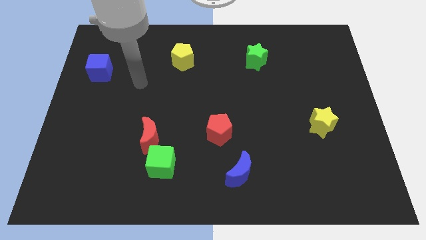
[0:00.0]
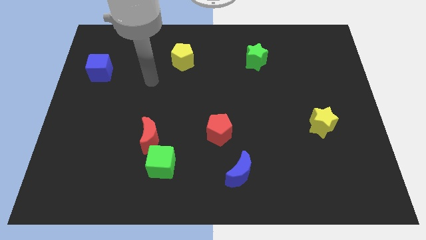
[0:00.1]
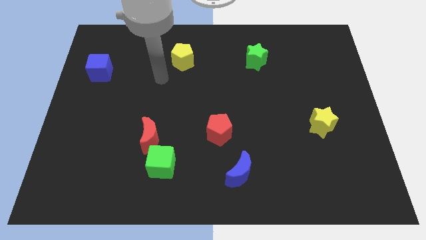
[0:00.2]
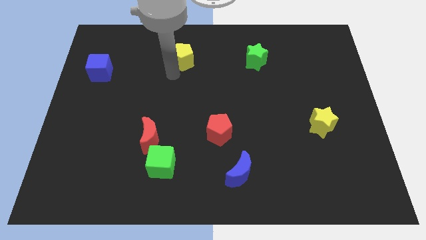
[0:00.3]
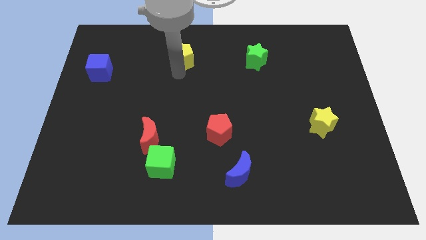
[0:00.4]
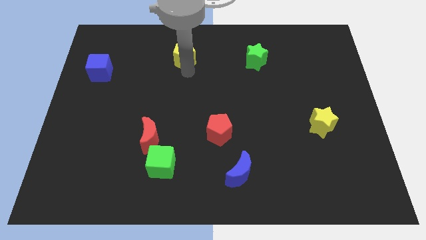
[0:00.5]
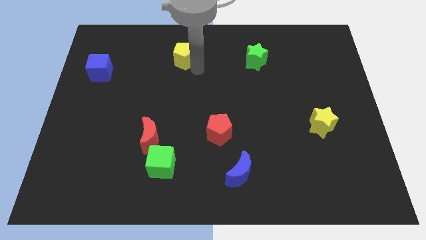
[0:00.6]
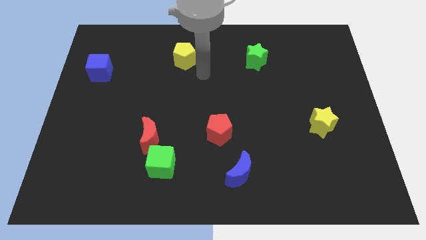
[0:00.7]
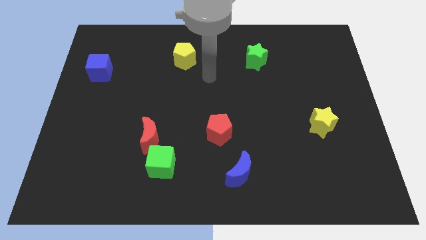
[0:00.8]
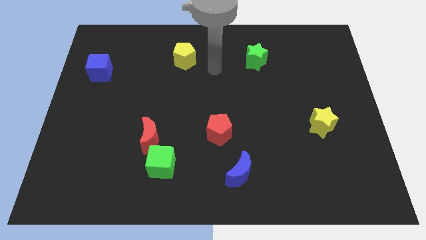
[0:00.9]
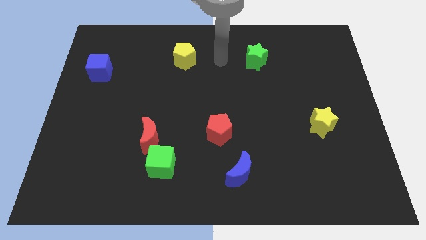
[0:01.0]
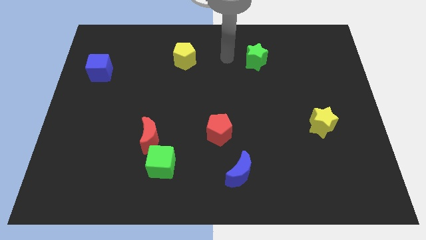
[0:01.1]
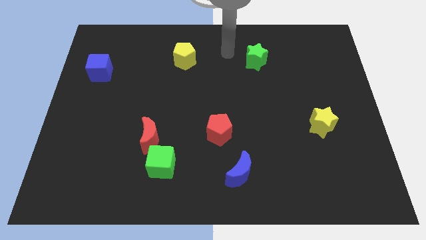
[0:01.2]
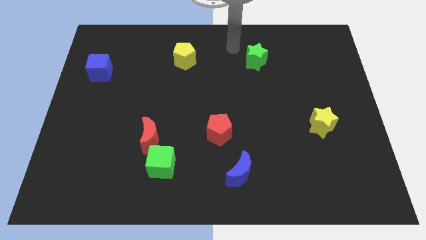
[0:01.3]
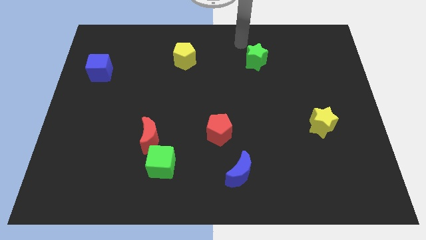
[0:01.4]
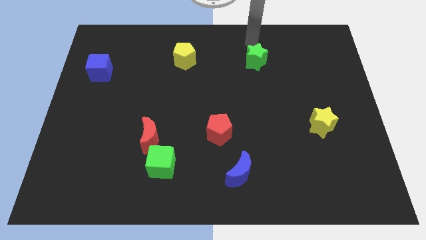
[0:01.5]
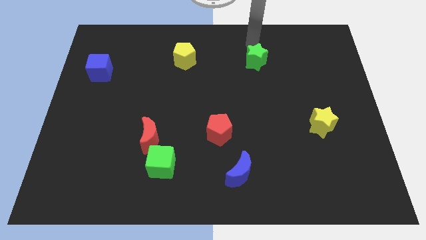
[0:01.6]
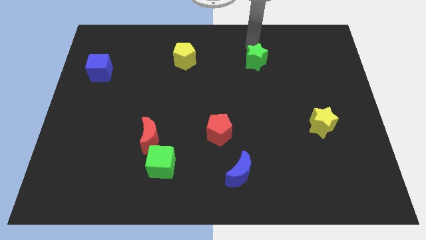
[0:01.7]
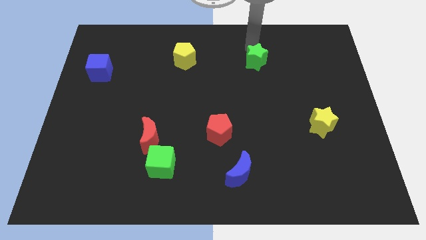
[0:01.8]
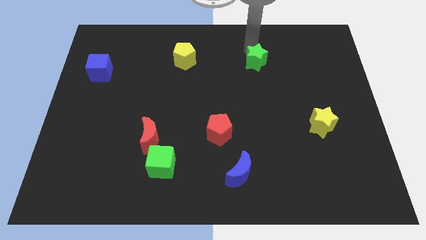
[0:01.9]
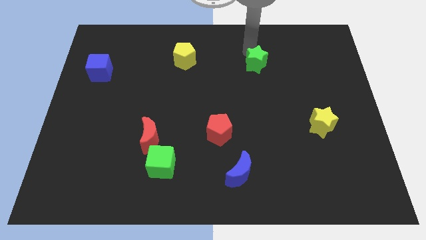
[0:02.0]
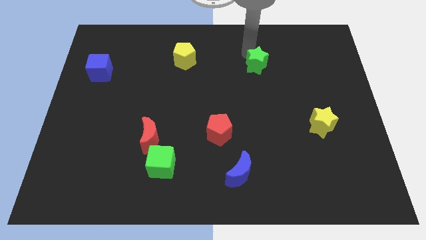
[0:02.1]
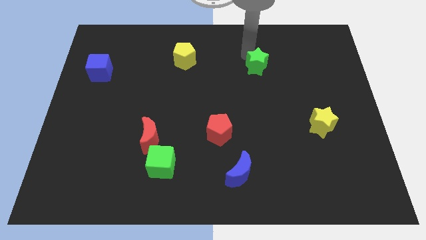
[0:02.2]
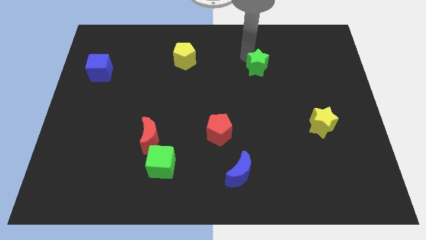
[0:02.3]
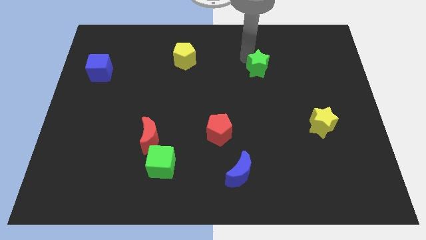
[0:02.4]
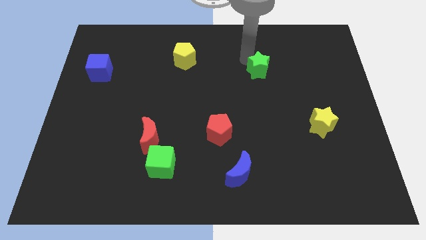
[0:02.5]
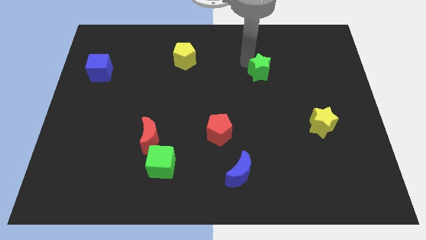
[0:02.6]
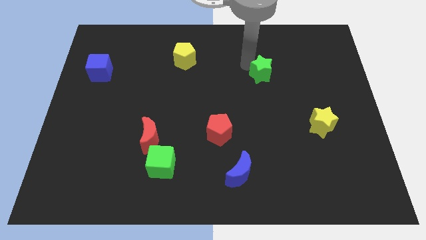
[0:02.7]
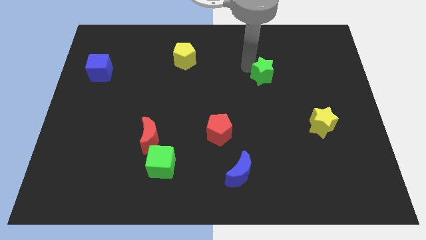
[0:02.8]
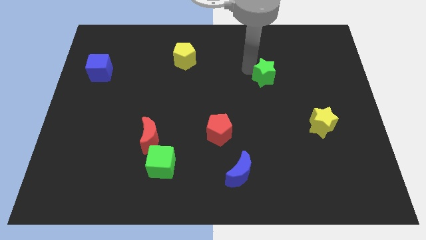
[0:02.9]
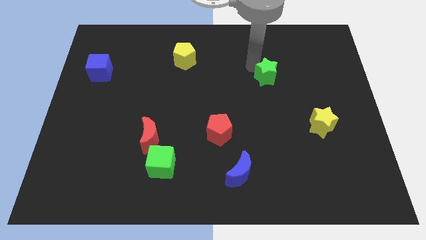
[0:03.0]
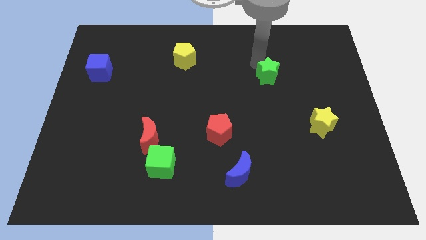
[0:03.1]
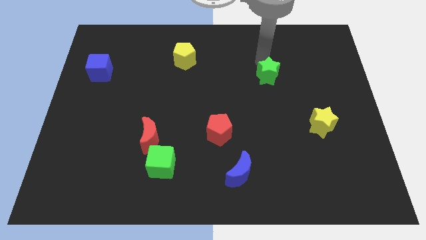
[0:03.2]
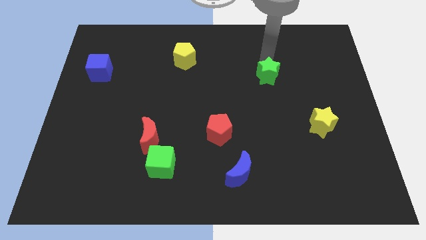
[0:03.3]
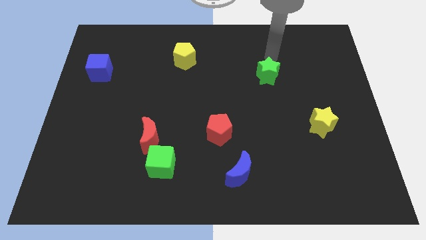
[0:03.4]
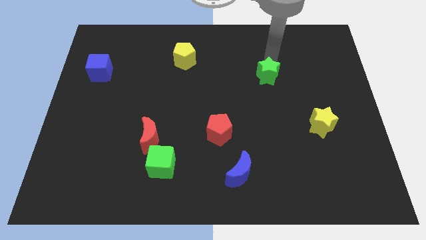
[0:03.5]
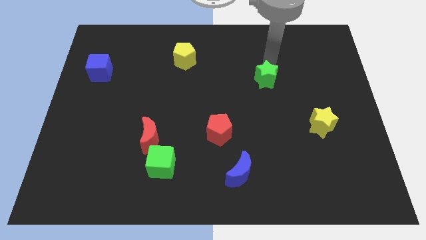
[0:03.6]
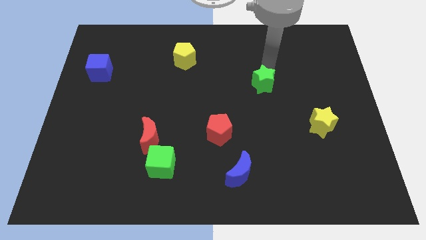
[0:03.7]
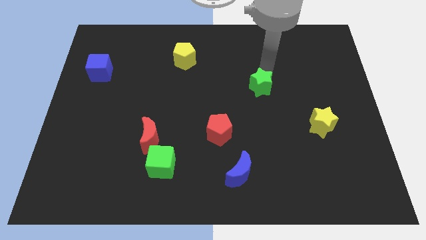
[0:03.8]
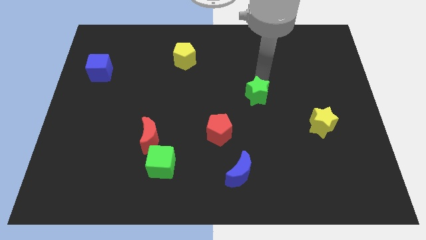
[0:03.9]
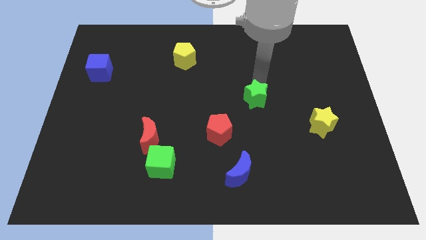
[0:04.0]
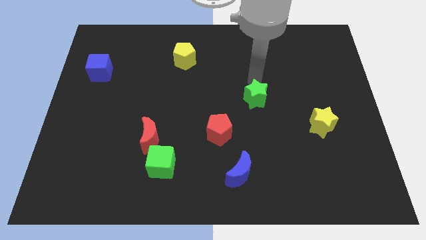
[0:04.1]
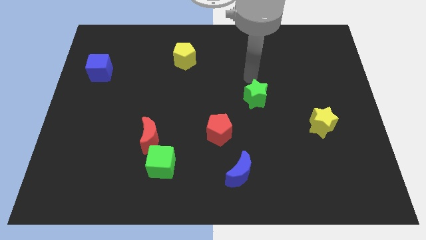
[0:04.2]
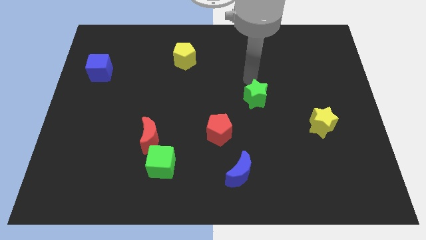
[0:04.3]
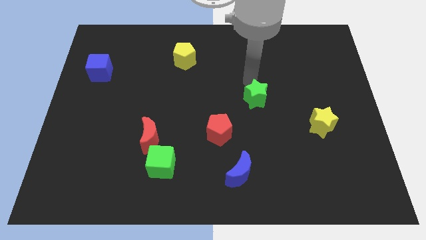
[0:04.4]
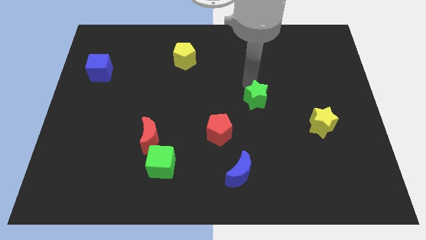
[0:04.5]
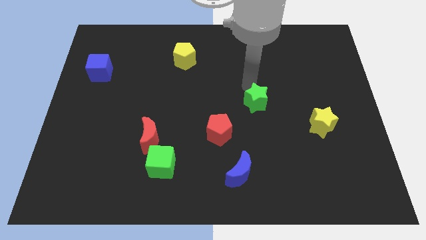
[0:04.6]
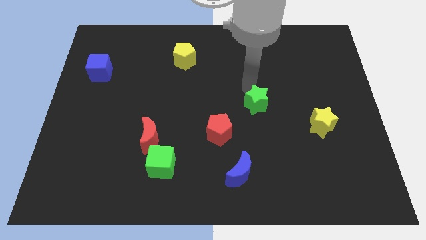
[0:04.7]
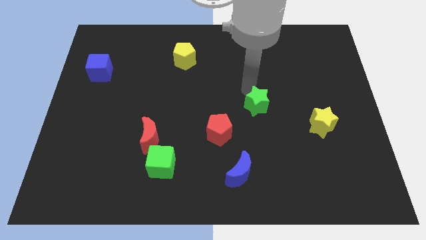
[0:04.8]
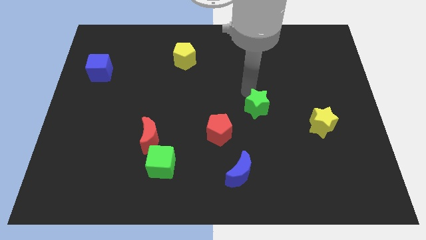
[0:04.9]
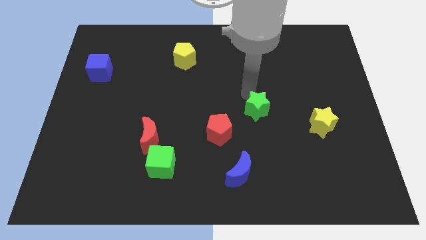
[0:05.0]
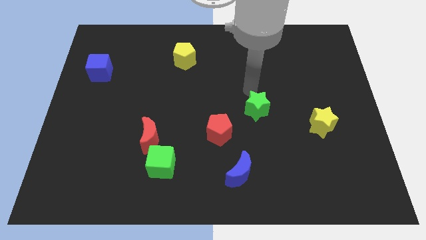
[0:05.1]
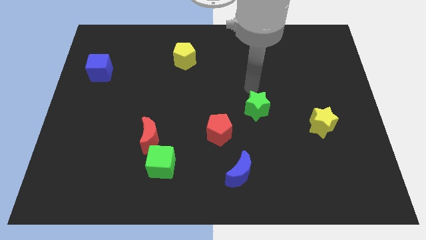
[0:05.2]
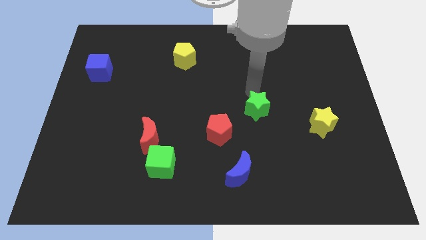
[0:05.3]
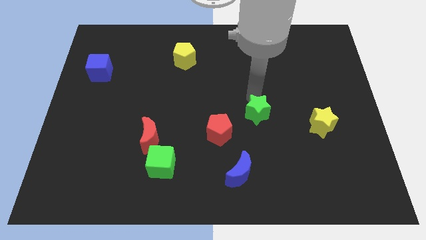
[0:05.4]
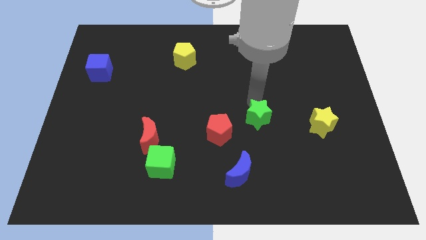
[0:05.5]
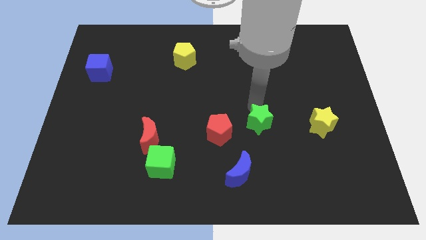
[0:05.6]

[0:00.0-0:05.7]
push the green star downwards

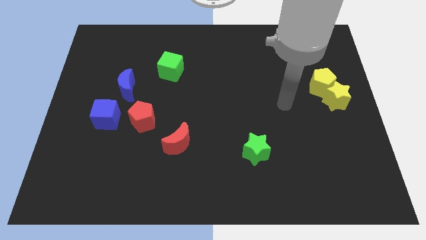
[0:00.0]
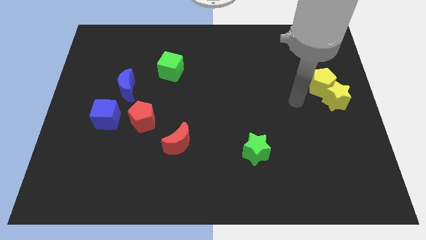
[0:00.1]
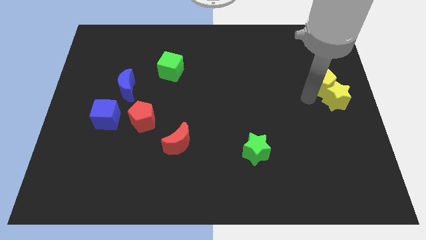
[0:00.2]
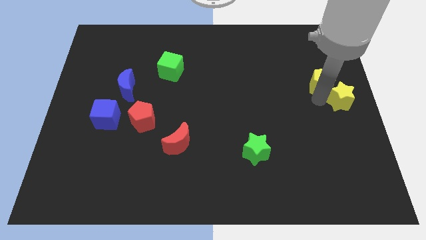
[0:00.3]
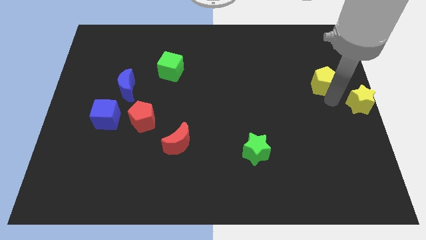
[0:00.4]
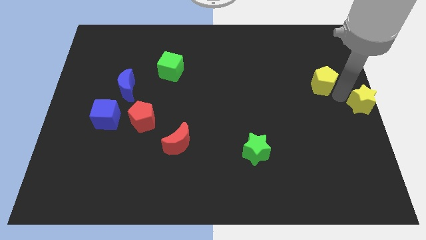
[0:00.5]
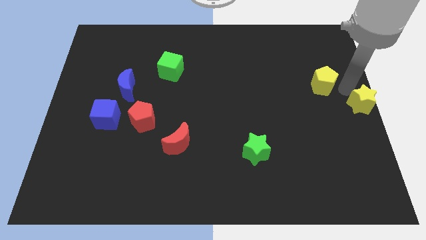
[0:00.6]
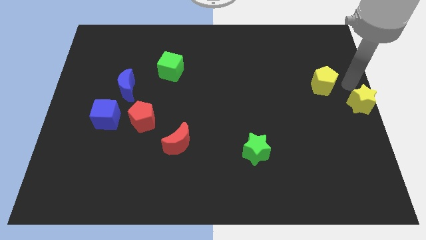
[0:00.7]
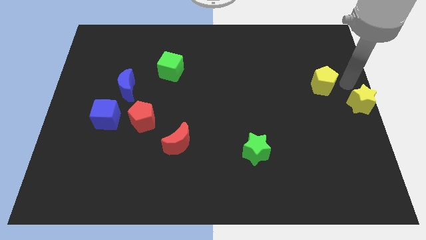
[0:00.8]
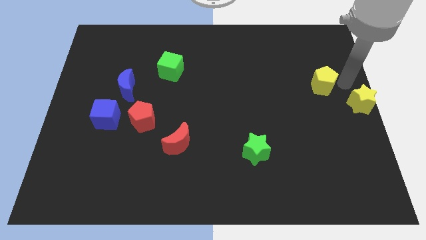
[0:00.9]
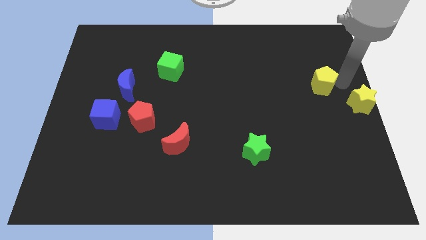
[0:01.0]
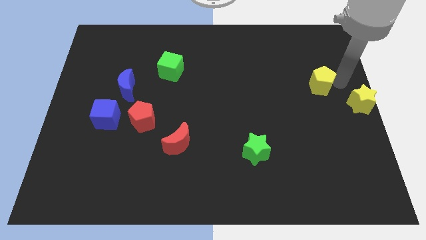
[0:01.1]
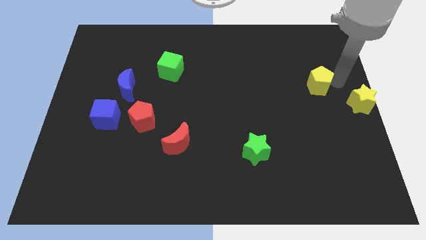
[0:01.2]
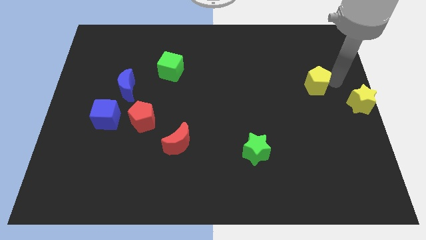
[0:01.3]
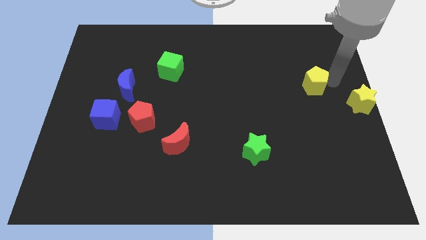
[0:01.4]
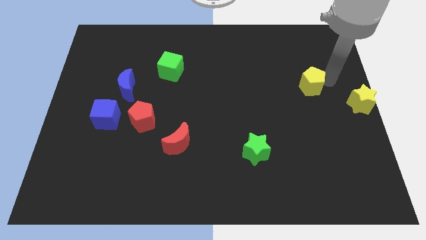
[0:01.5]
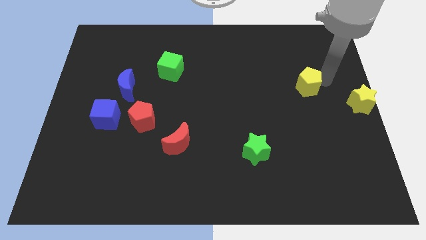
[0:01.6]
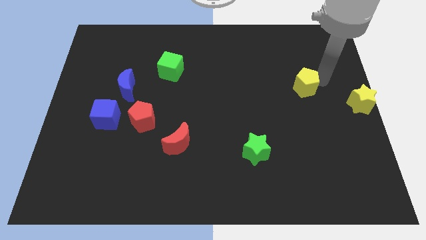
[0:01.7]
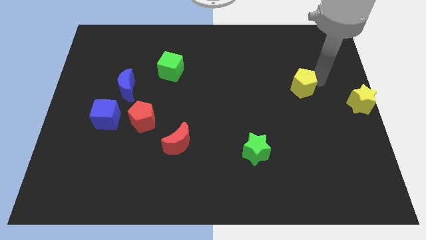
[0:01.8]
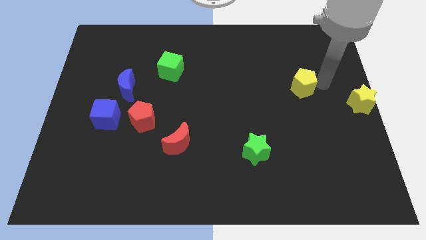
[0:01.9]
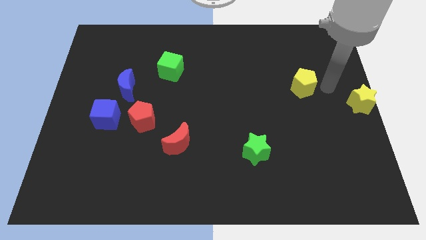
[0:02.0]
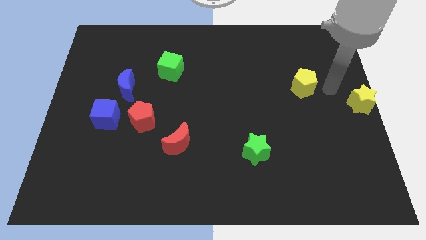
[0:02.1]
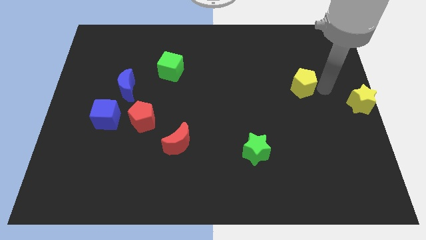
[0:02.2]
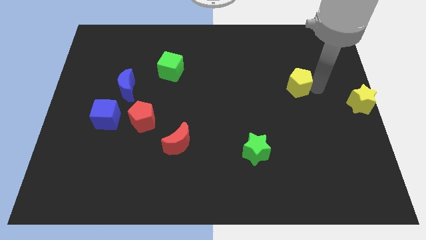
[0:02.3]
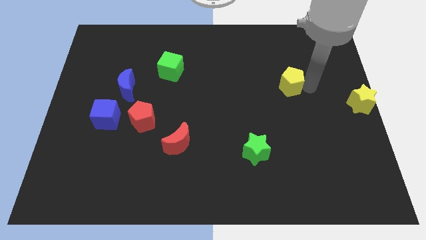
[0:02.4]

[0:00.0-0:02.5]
push the yellow pentagon to the left somewhat
